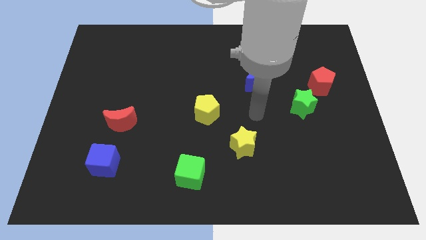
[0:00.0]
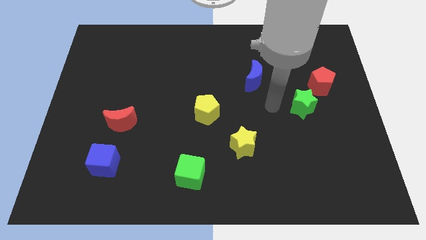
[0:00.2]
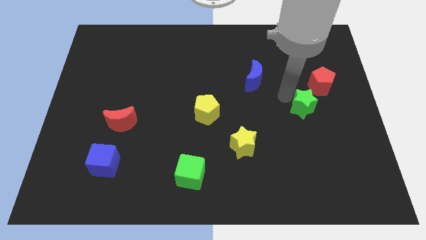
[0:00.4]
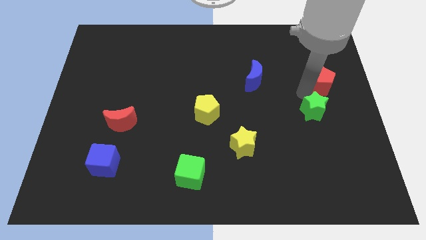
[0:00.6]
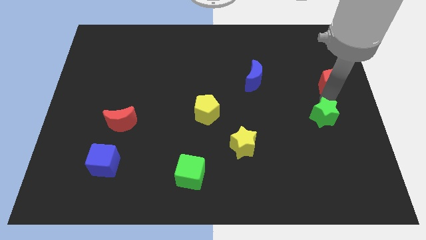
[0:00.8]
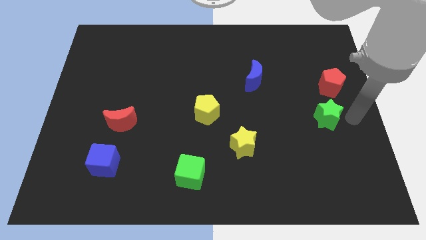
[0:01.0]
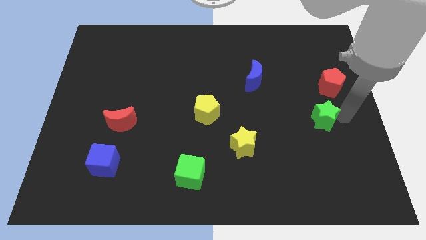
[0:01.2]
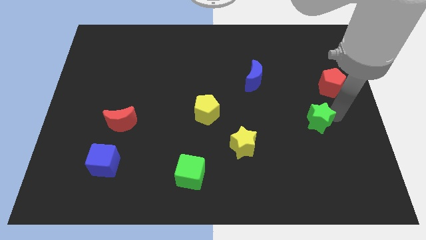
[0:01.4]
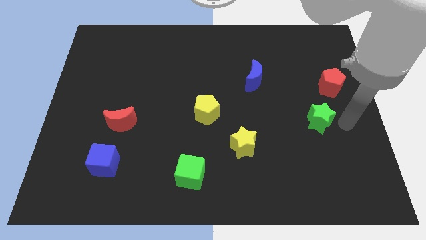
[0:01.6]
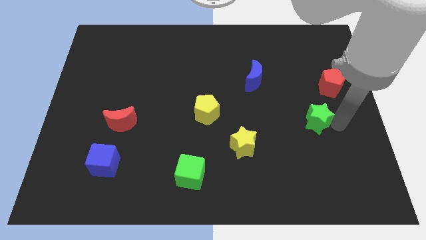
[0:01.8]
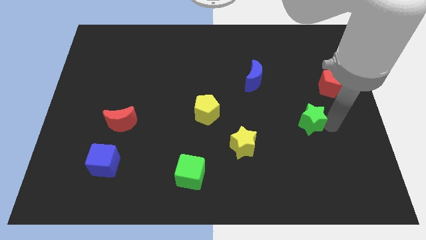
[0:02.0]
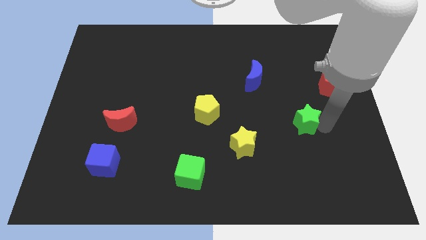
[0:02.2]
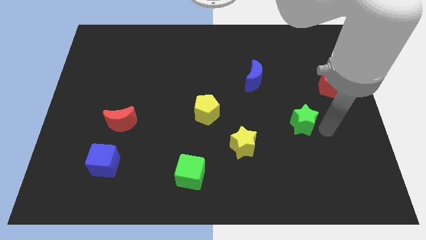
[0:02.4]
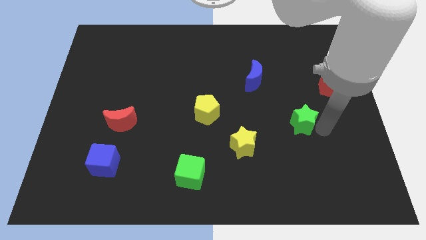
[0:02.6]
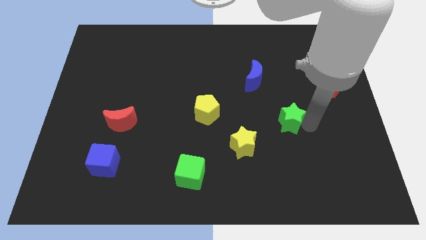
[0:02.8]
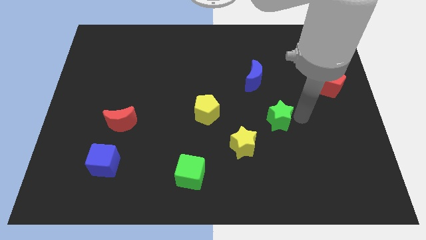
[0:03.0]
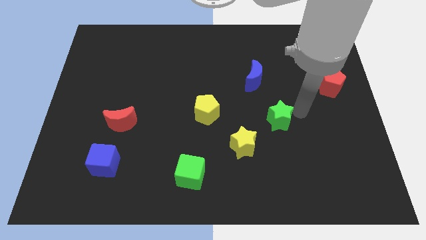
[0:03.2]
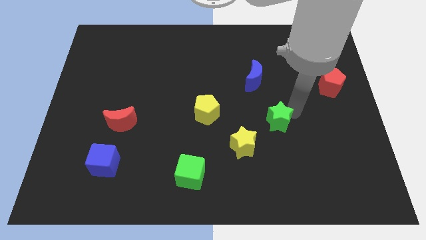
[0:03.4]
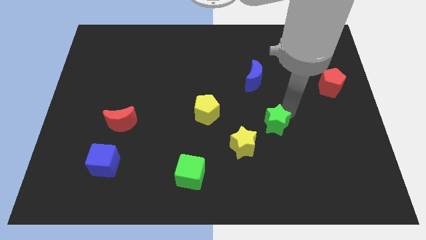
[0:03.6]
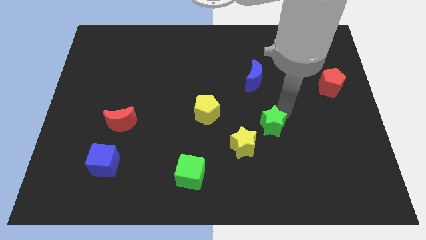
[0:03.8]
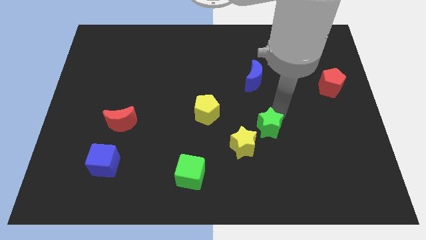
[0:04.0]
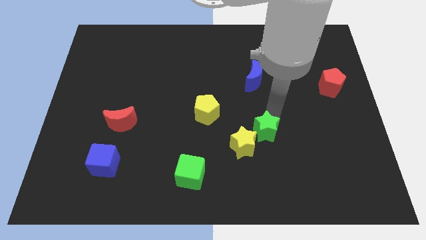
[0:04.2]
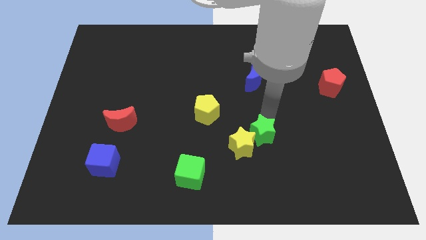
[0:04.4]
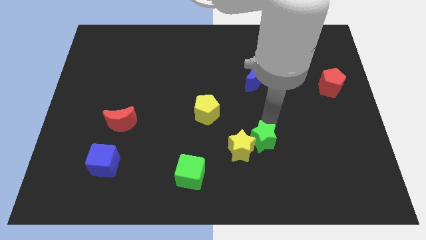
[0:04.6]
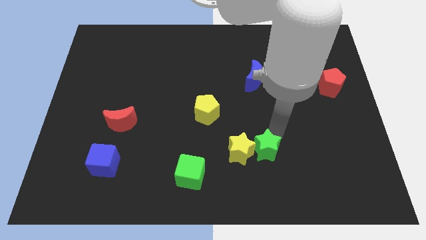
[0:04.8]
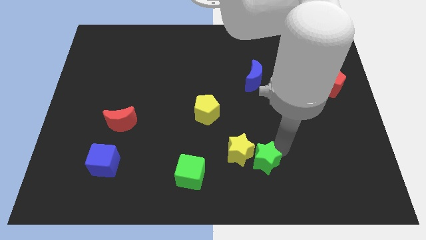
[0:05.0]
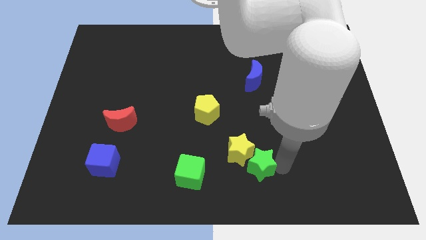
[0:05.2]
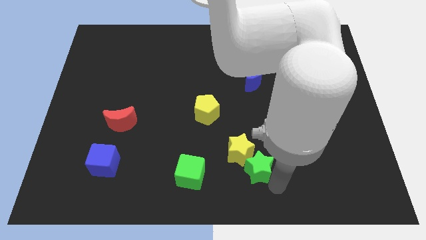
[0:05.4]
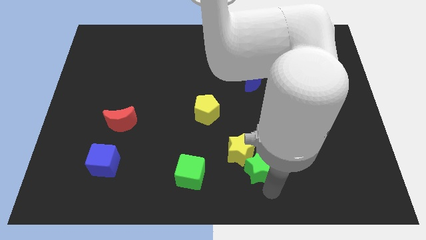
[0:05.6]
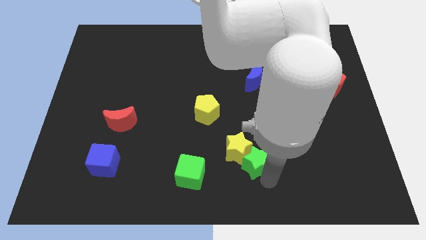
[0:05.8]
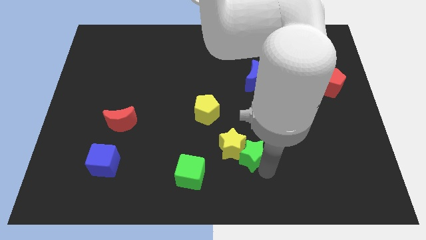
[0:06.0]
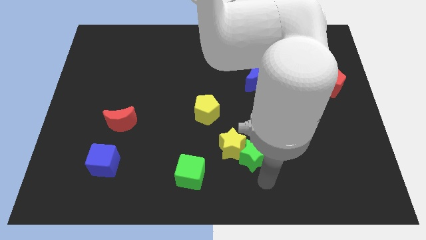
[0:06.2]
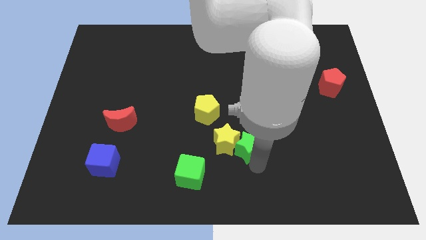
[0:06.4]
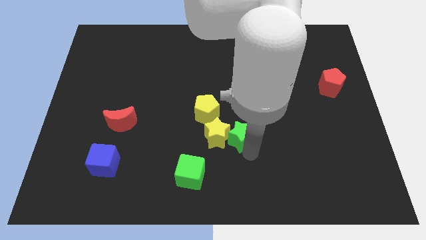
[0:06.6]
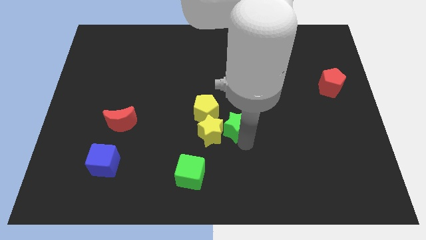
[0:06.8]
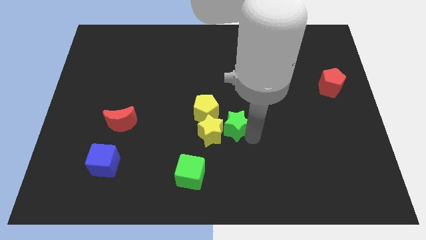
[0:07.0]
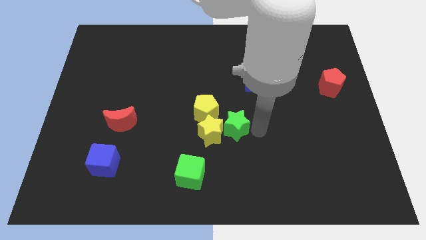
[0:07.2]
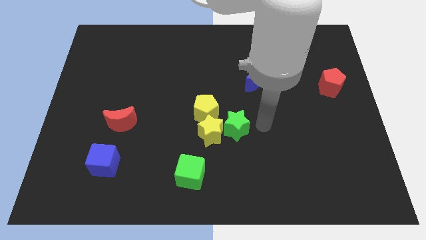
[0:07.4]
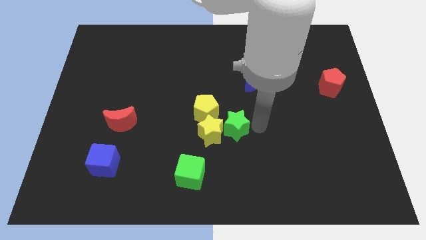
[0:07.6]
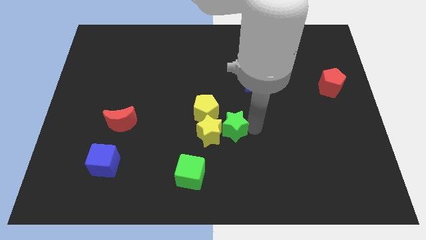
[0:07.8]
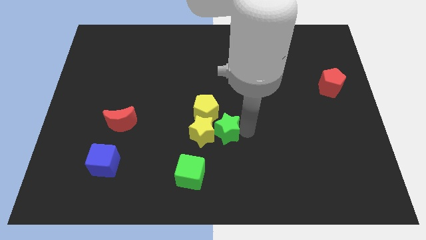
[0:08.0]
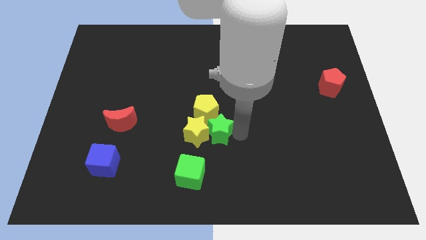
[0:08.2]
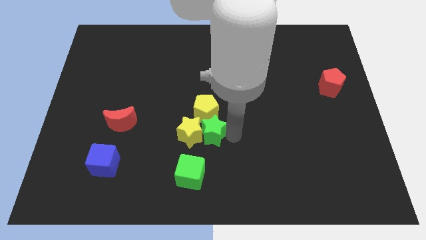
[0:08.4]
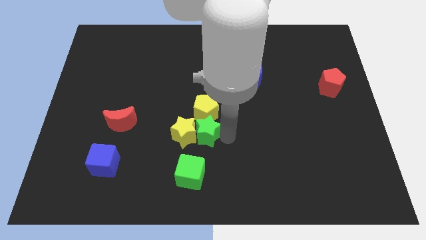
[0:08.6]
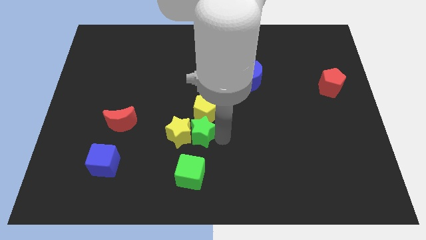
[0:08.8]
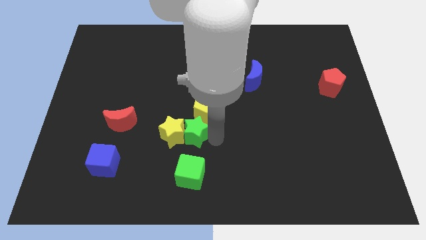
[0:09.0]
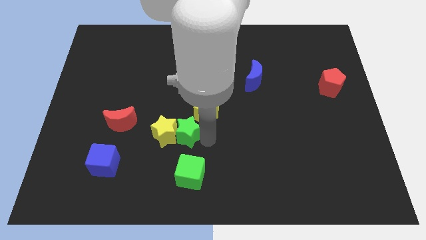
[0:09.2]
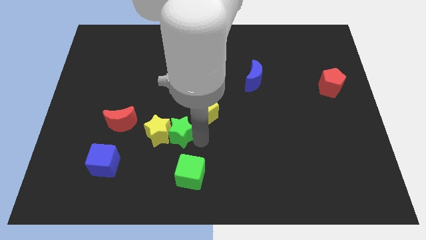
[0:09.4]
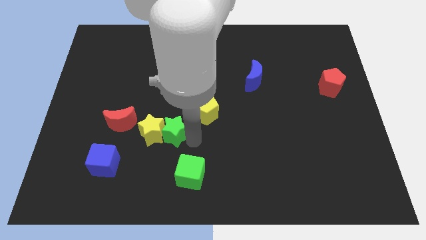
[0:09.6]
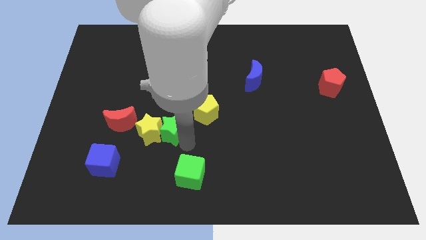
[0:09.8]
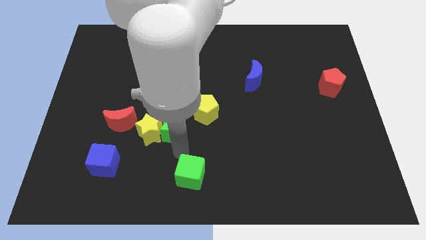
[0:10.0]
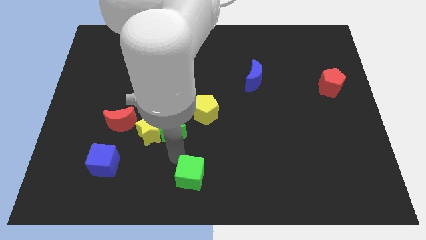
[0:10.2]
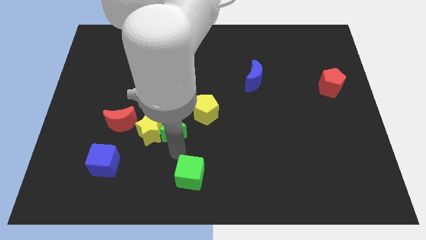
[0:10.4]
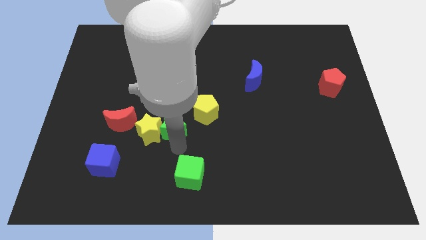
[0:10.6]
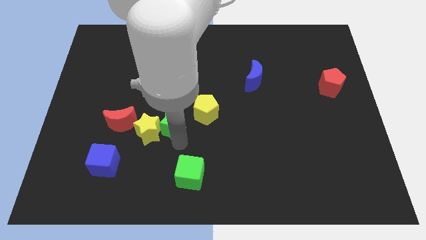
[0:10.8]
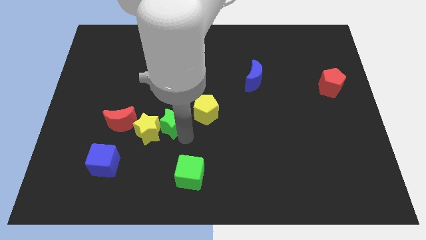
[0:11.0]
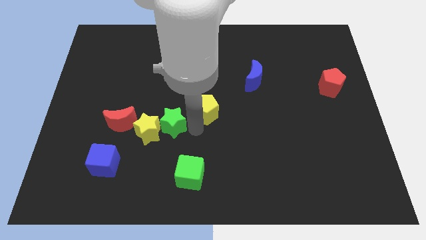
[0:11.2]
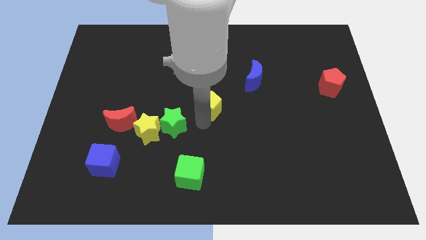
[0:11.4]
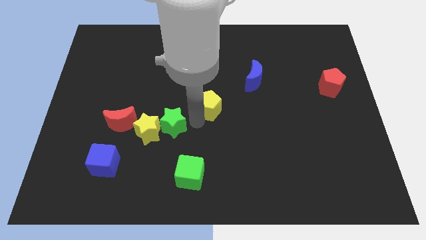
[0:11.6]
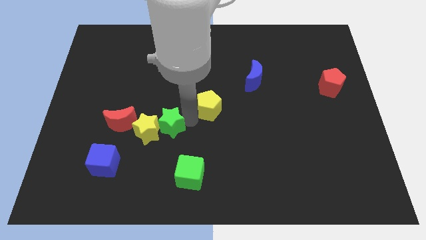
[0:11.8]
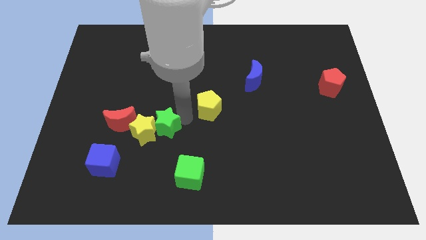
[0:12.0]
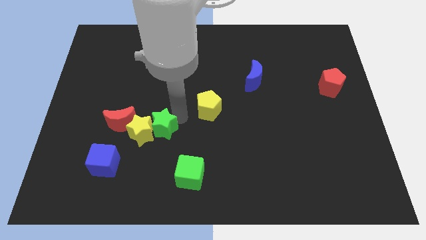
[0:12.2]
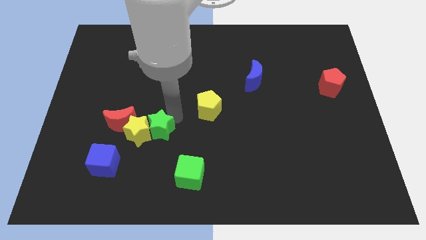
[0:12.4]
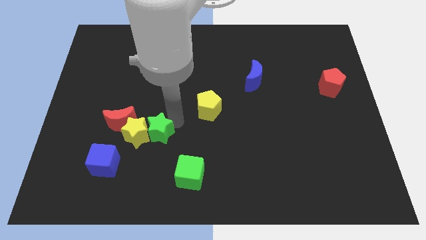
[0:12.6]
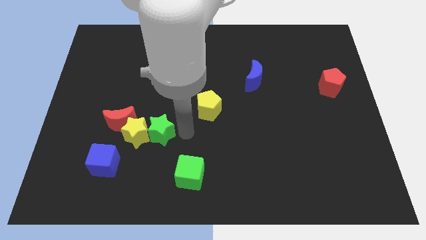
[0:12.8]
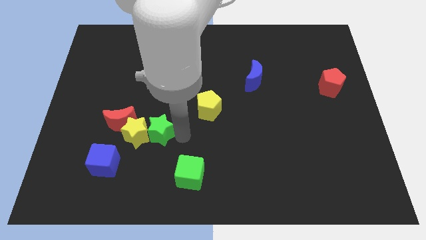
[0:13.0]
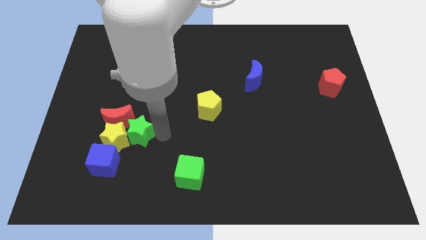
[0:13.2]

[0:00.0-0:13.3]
push the green star close to the red moon

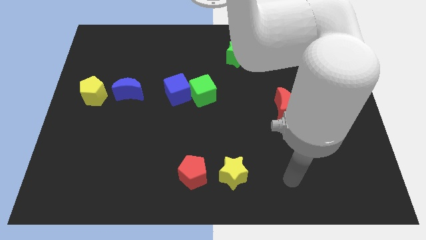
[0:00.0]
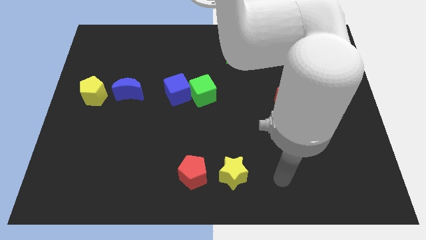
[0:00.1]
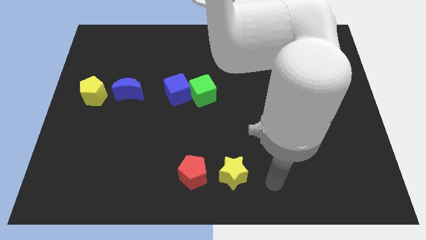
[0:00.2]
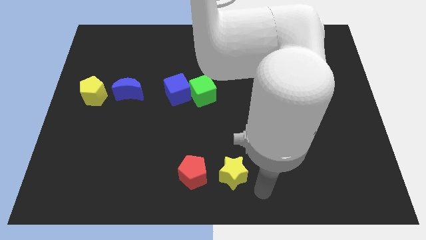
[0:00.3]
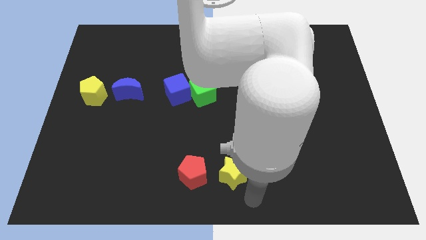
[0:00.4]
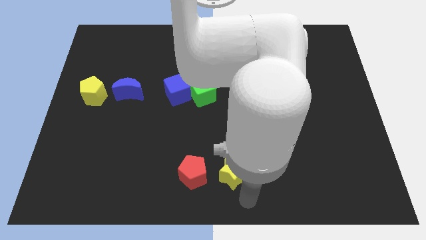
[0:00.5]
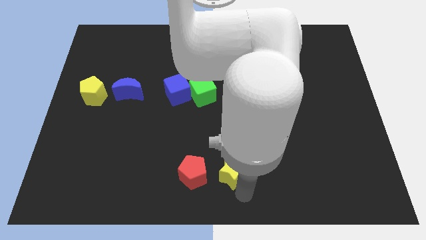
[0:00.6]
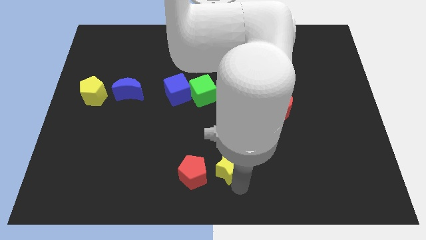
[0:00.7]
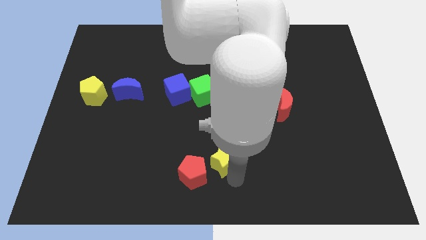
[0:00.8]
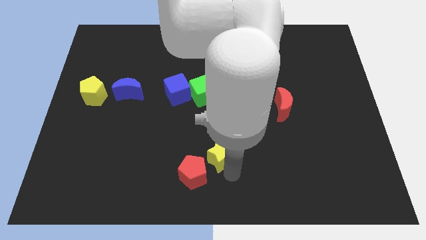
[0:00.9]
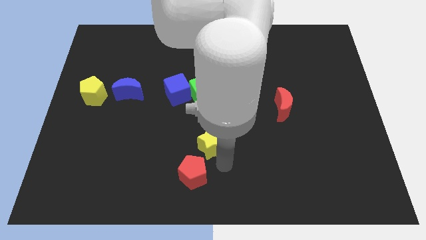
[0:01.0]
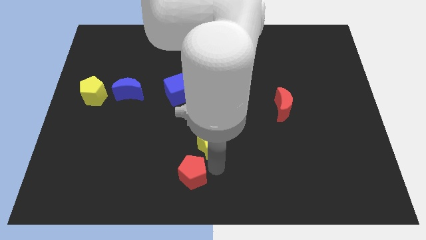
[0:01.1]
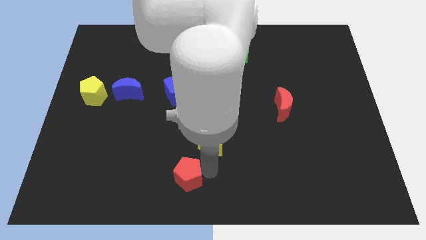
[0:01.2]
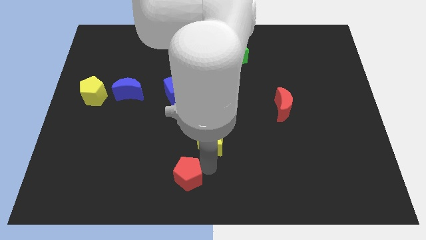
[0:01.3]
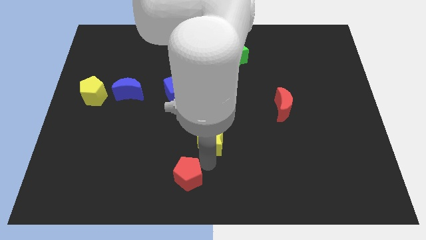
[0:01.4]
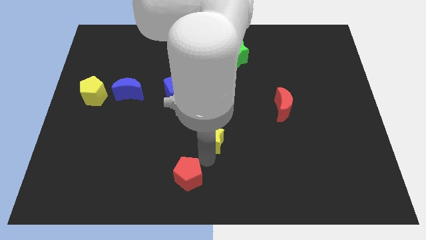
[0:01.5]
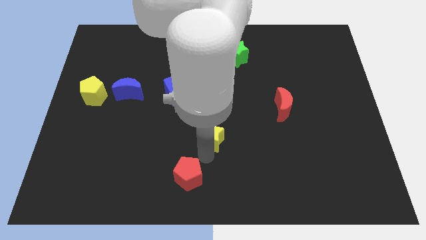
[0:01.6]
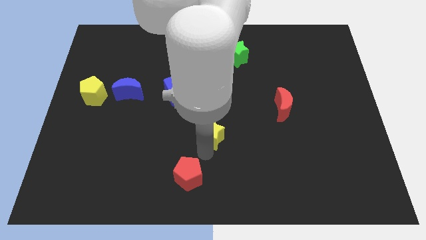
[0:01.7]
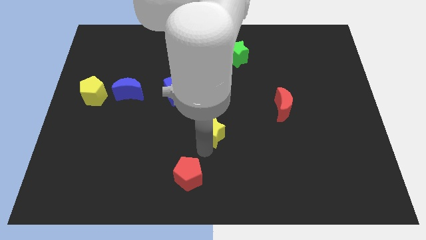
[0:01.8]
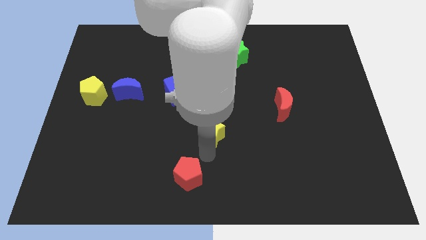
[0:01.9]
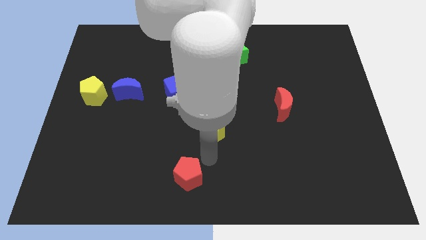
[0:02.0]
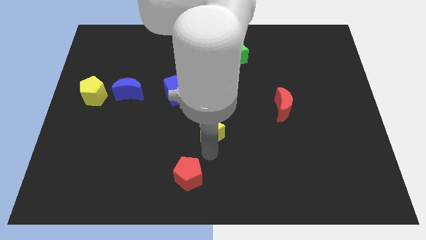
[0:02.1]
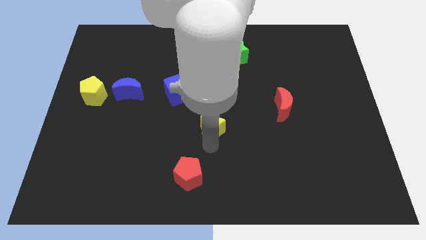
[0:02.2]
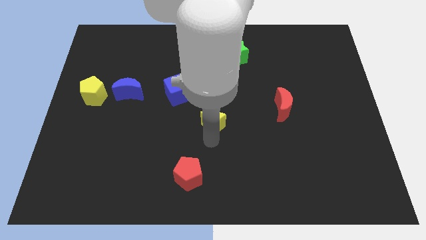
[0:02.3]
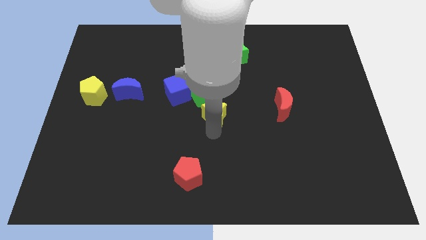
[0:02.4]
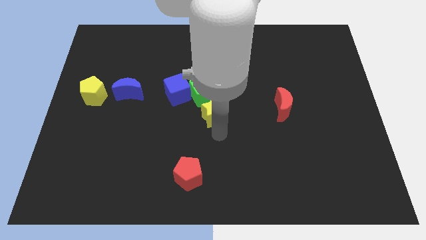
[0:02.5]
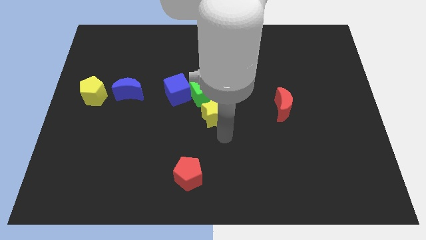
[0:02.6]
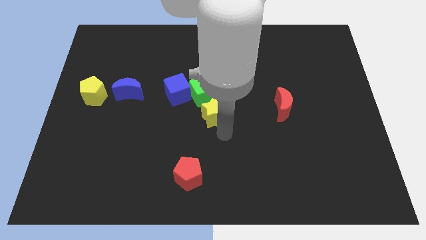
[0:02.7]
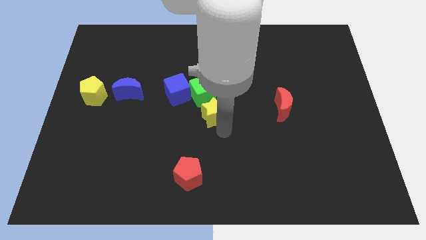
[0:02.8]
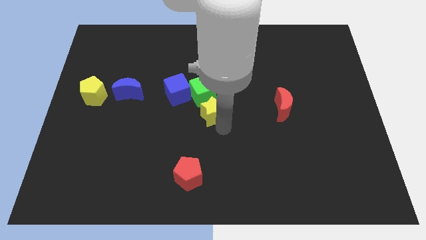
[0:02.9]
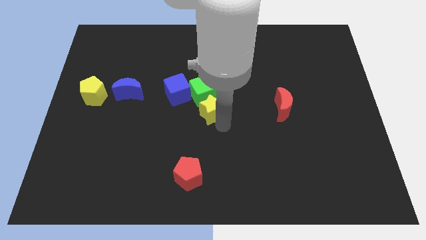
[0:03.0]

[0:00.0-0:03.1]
slide the yellow star close to the green cube
